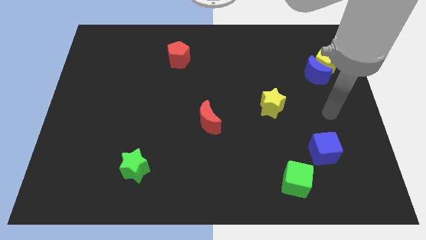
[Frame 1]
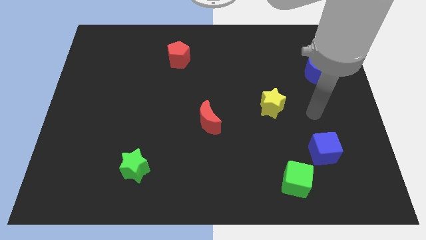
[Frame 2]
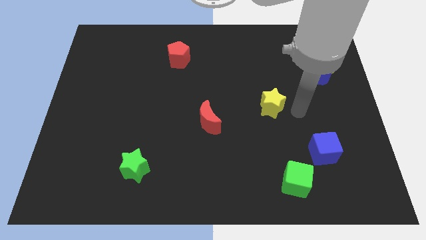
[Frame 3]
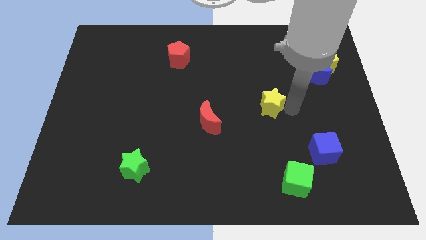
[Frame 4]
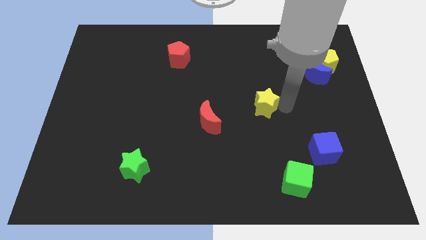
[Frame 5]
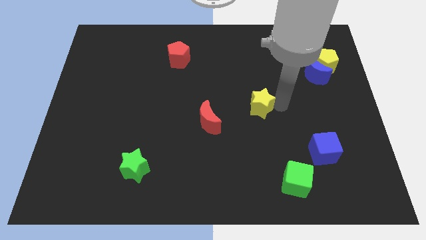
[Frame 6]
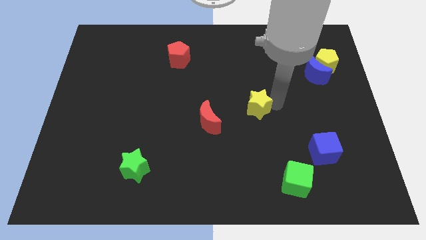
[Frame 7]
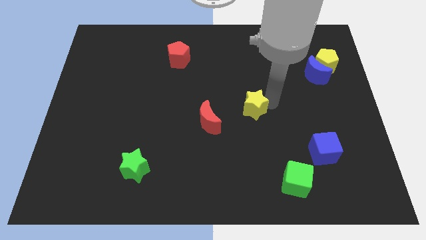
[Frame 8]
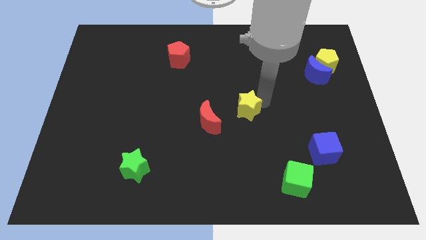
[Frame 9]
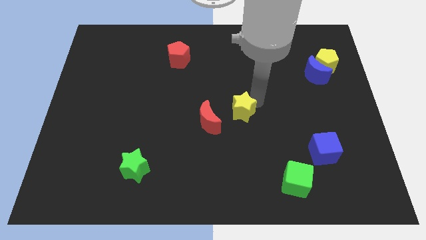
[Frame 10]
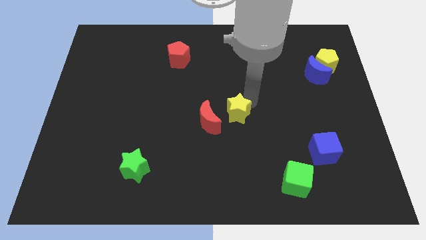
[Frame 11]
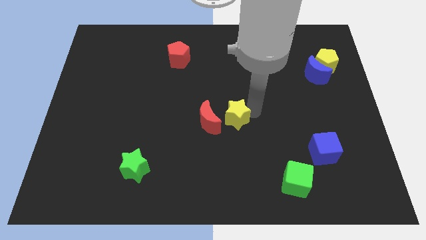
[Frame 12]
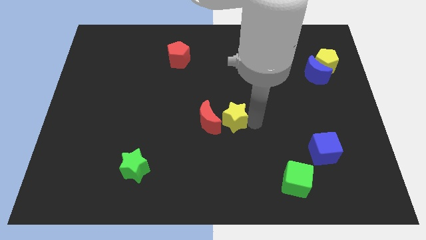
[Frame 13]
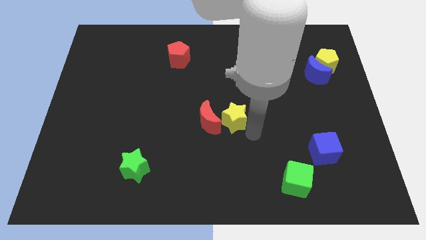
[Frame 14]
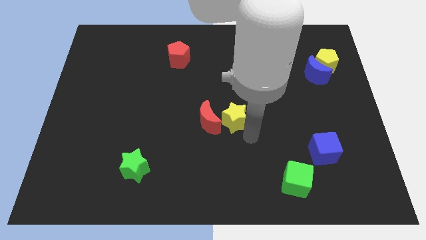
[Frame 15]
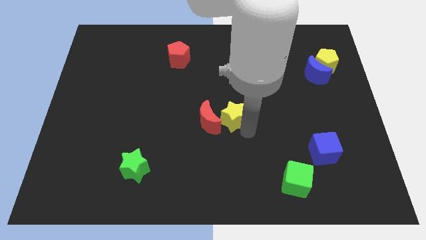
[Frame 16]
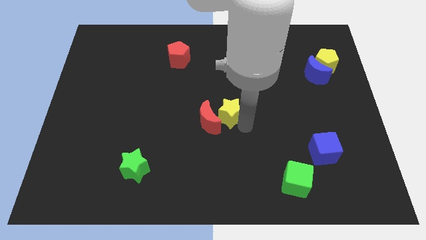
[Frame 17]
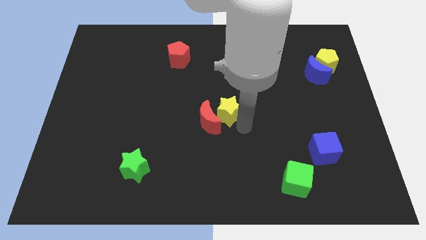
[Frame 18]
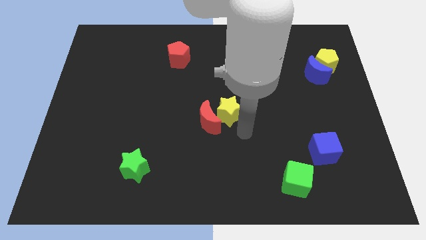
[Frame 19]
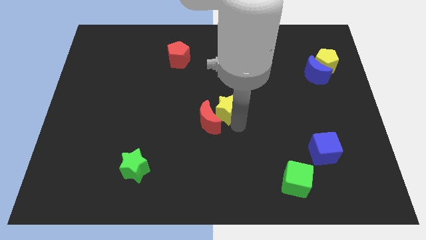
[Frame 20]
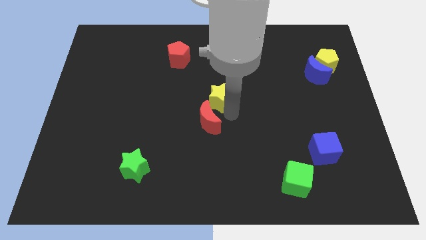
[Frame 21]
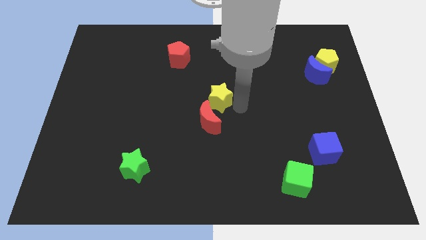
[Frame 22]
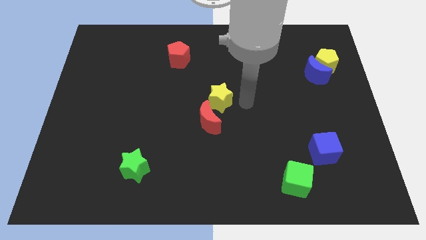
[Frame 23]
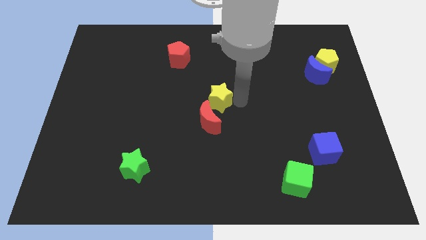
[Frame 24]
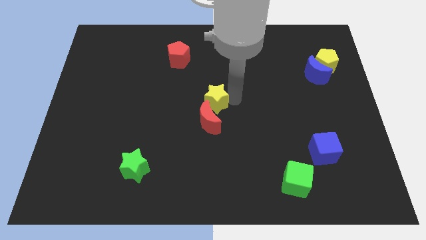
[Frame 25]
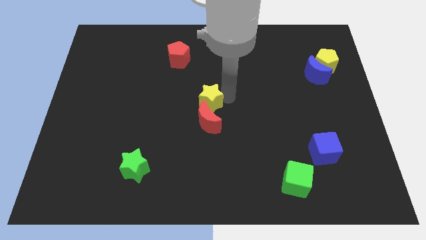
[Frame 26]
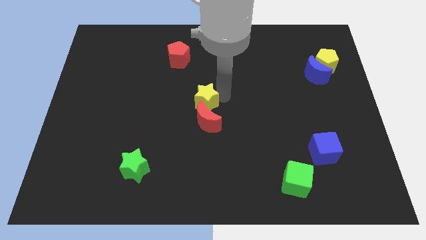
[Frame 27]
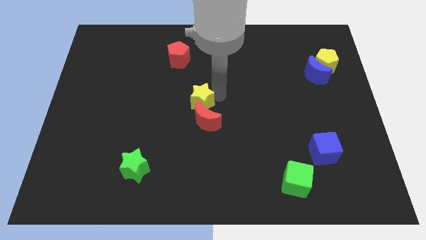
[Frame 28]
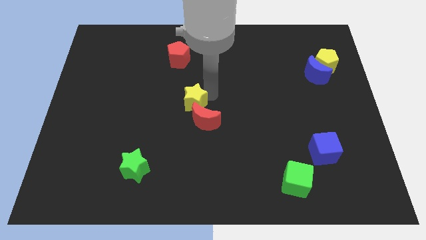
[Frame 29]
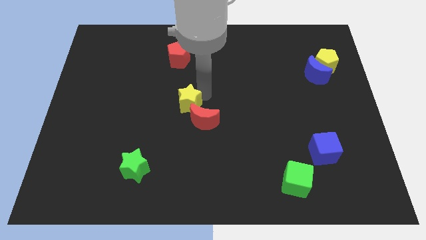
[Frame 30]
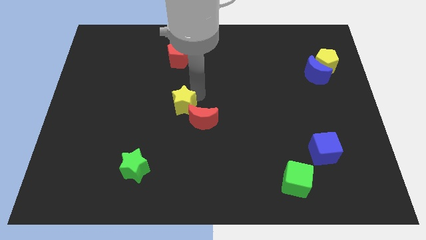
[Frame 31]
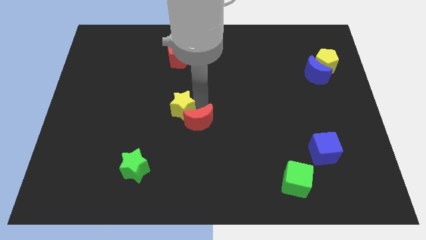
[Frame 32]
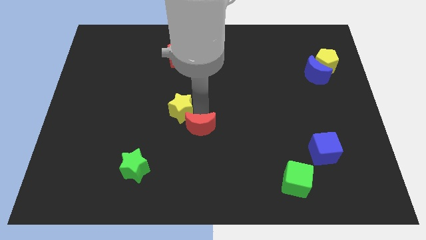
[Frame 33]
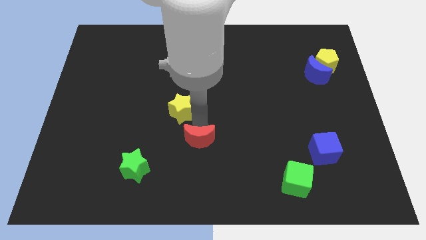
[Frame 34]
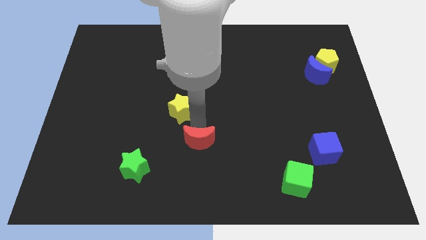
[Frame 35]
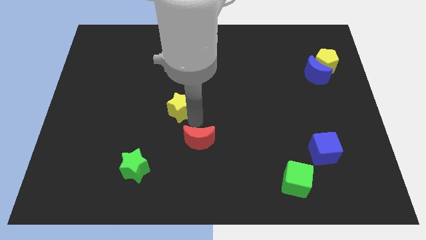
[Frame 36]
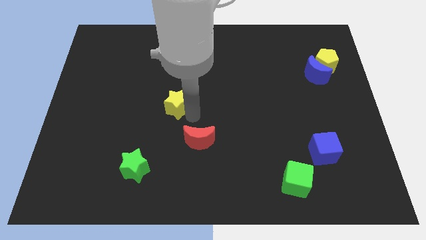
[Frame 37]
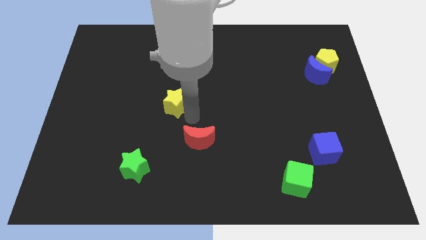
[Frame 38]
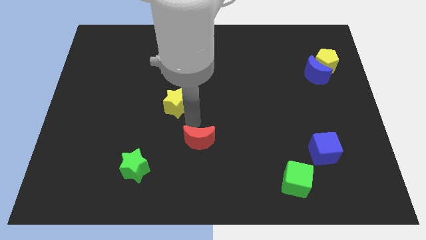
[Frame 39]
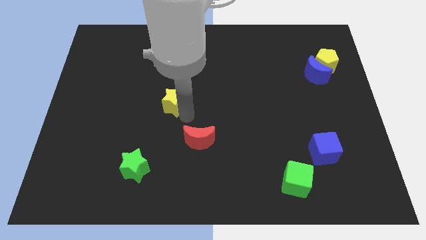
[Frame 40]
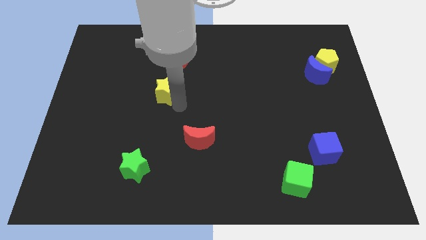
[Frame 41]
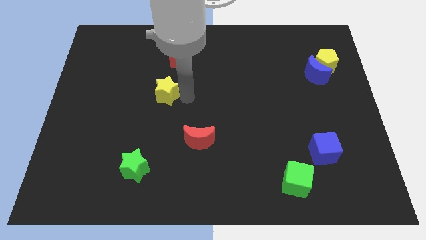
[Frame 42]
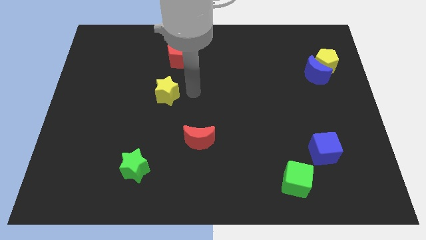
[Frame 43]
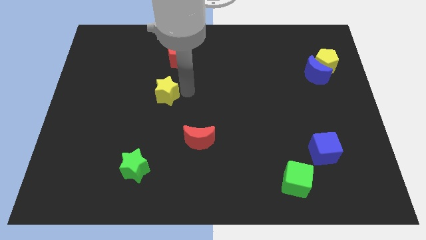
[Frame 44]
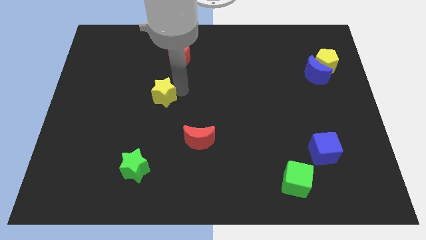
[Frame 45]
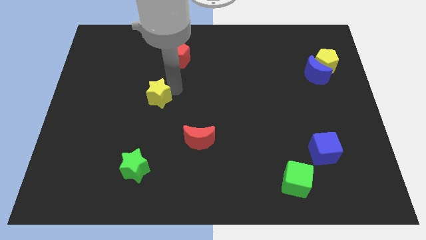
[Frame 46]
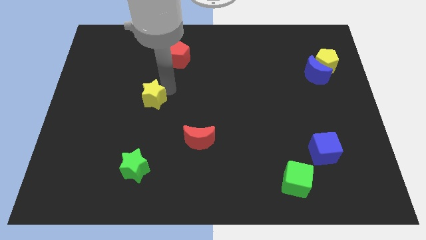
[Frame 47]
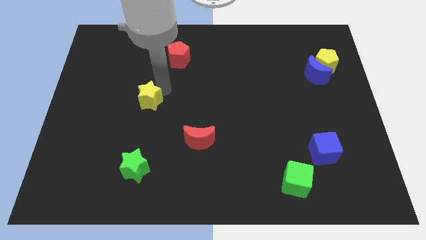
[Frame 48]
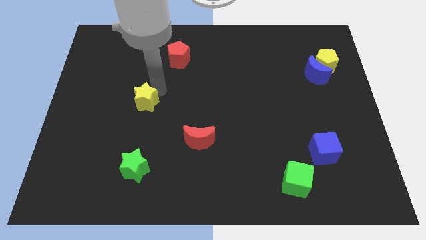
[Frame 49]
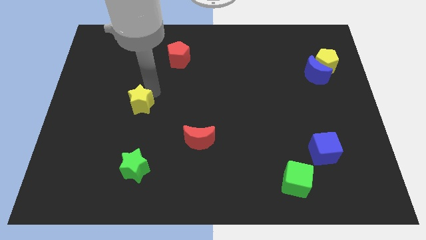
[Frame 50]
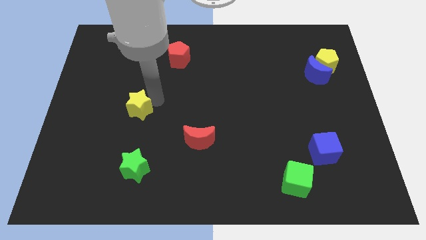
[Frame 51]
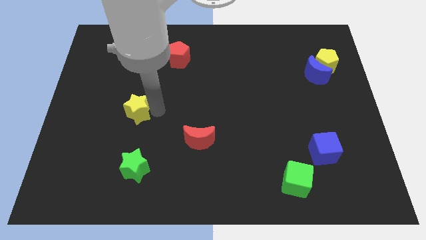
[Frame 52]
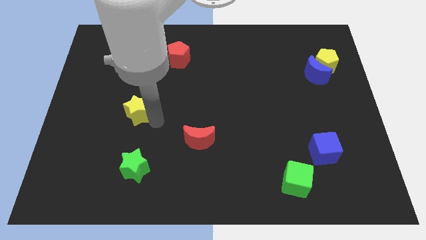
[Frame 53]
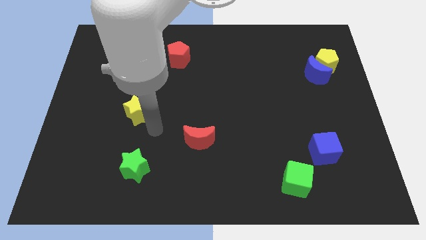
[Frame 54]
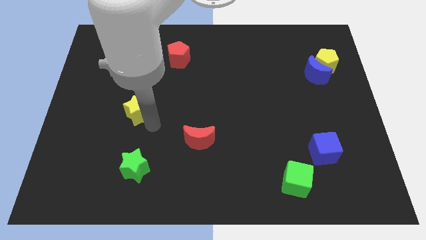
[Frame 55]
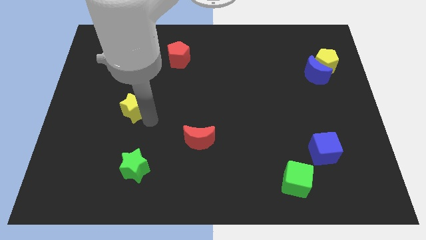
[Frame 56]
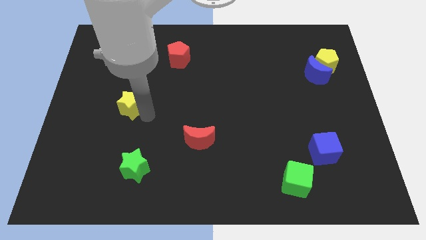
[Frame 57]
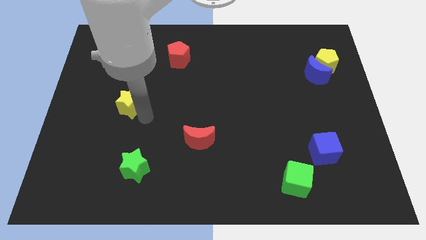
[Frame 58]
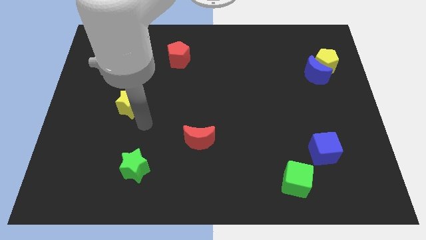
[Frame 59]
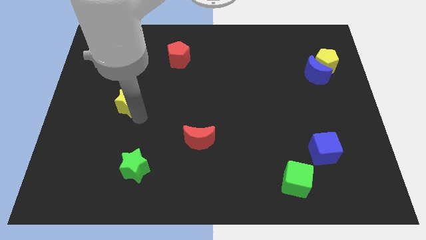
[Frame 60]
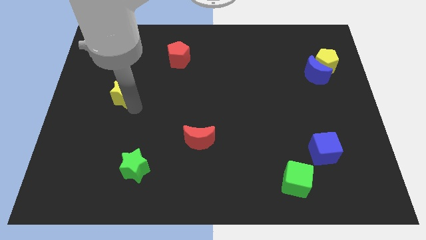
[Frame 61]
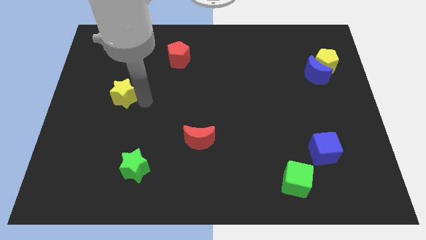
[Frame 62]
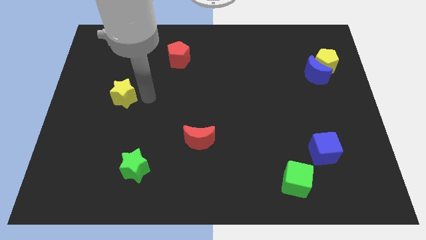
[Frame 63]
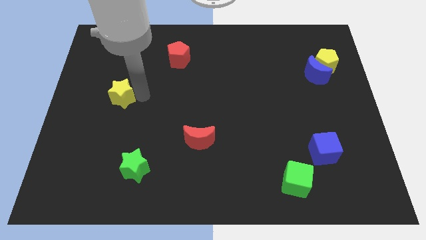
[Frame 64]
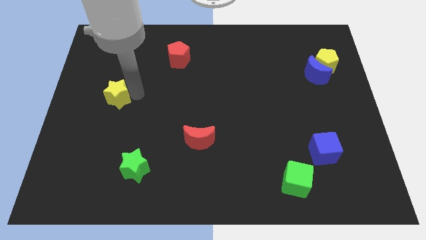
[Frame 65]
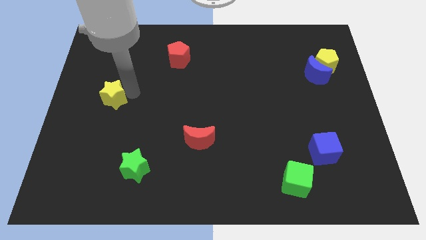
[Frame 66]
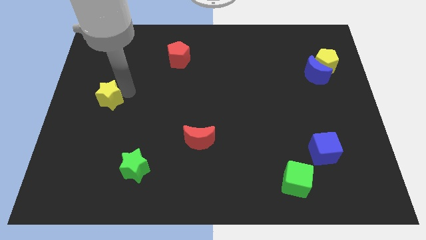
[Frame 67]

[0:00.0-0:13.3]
push the yellow star to the left side
